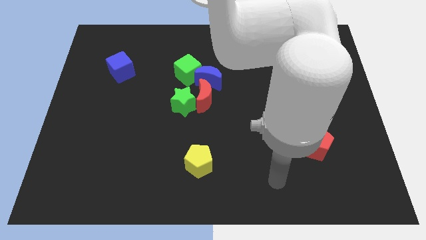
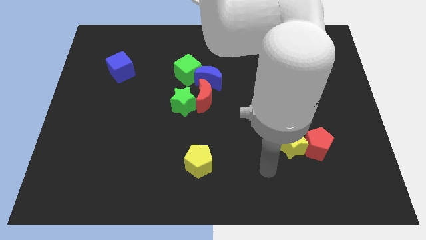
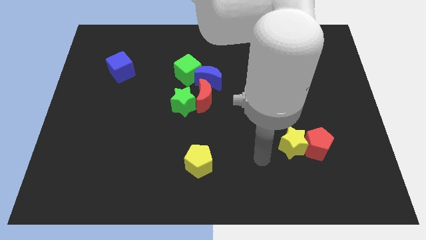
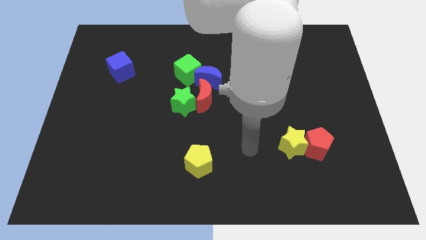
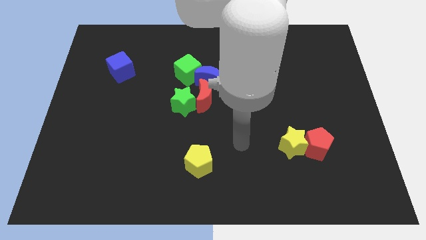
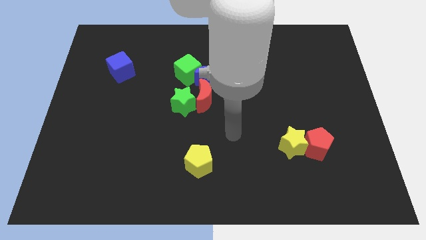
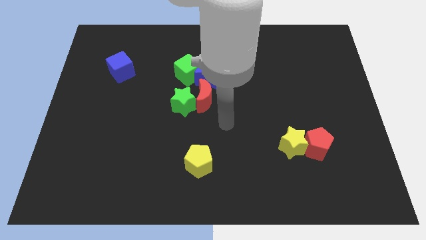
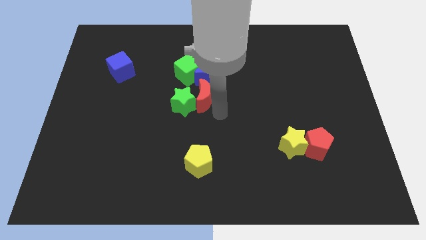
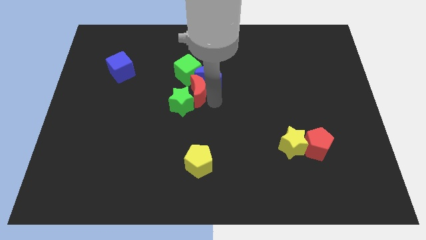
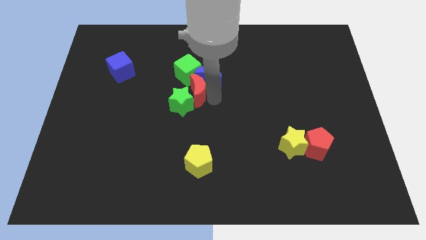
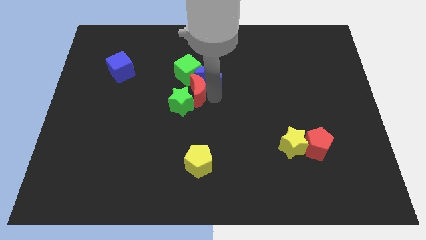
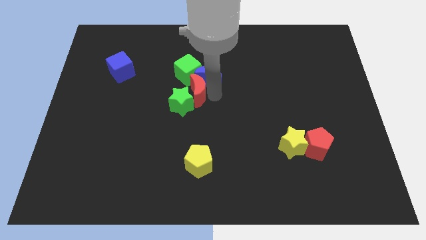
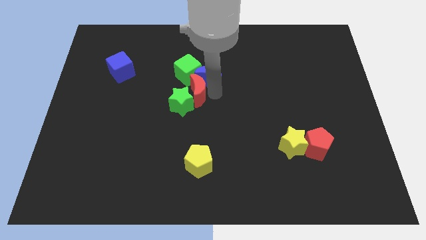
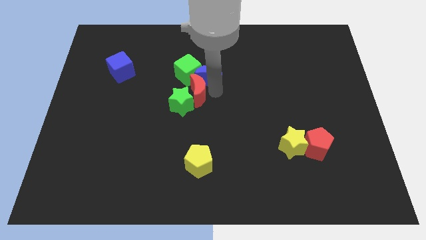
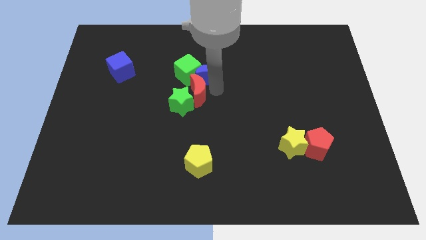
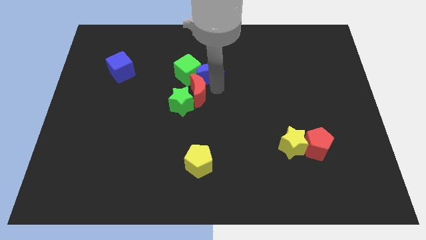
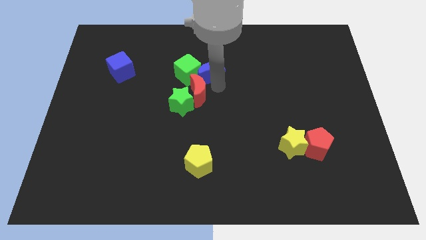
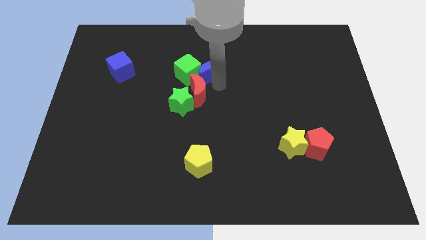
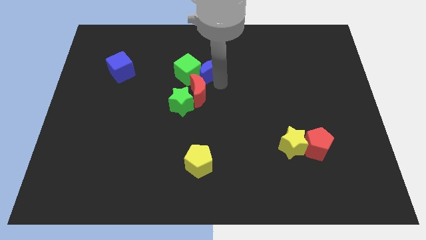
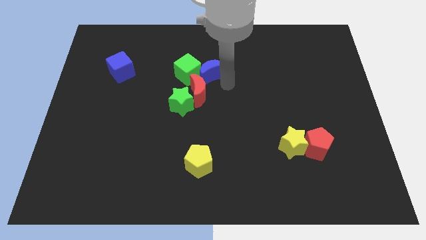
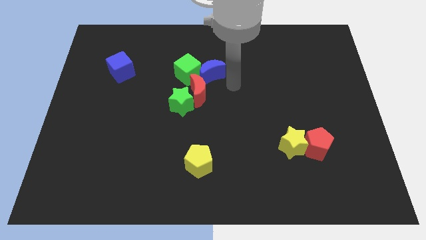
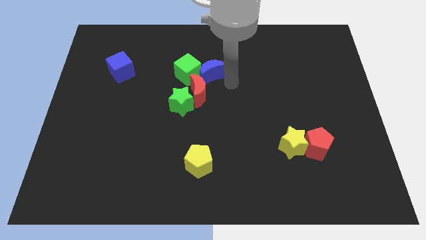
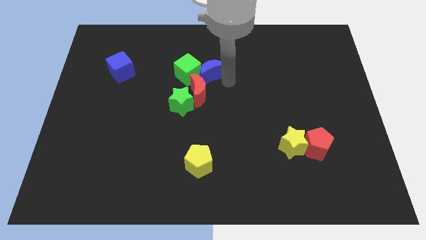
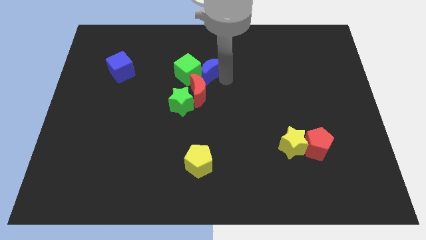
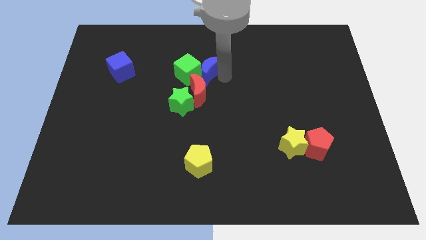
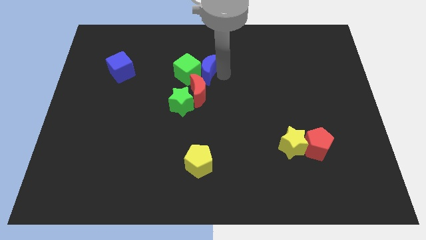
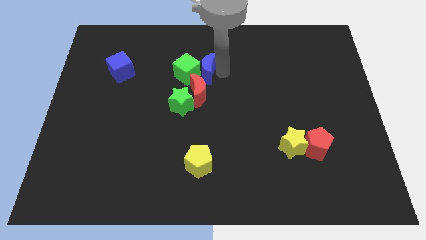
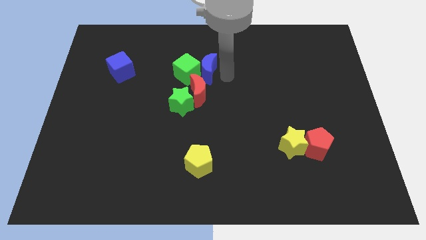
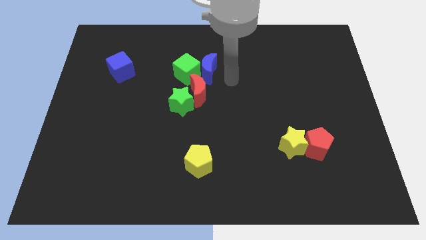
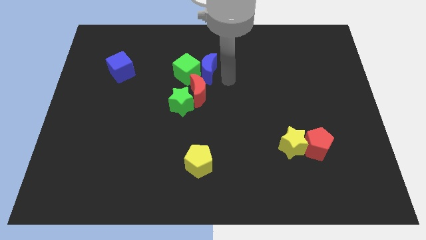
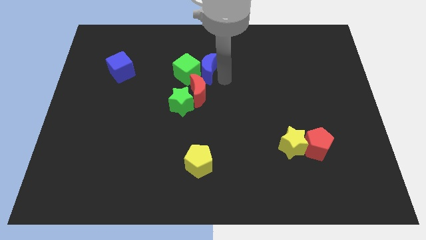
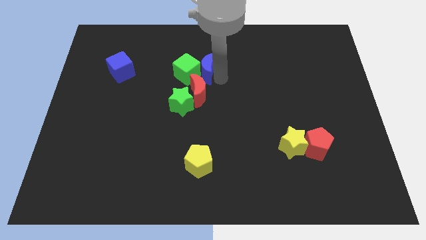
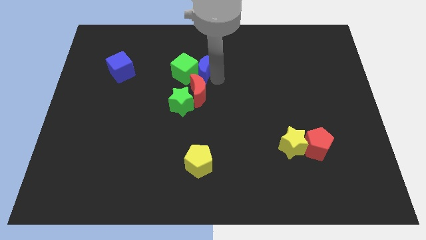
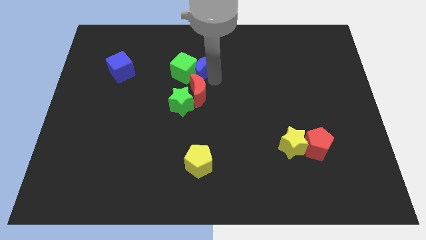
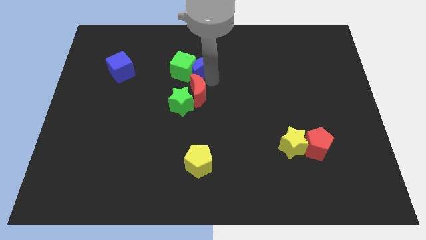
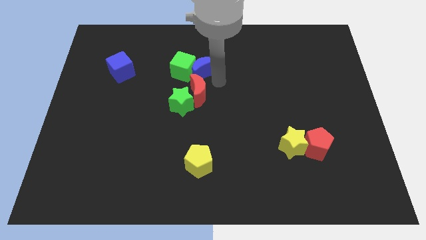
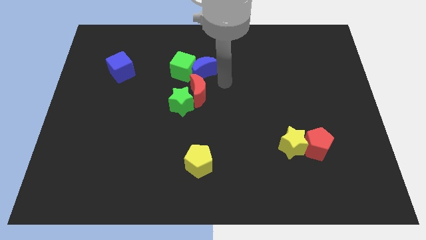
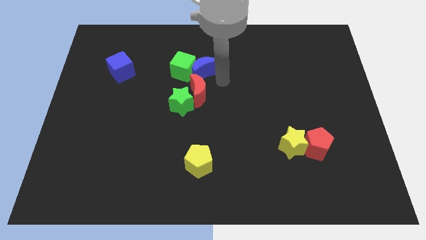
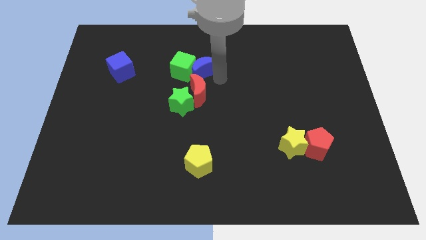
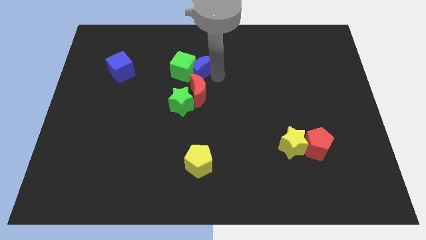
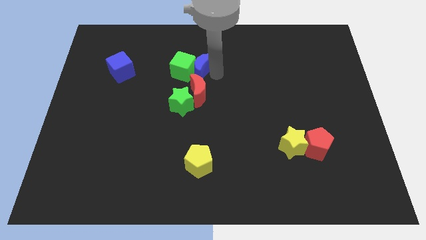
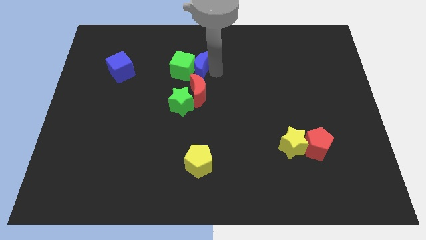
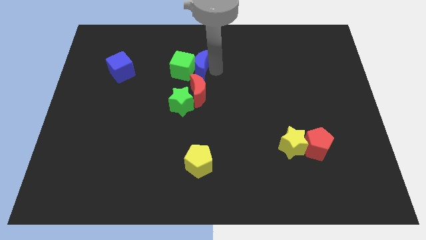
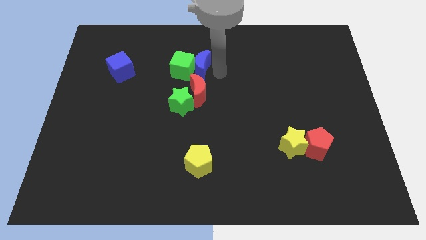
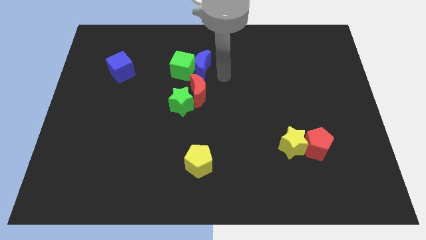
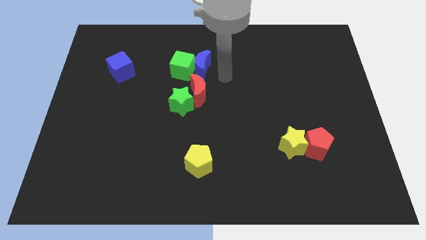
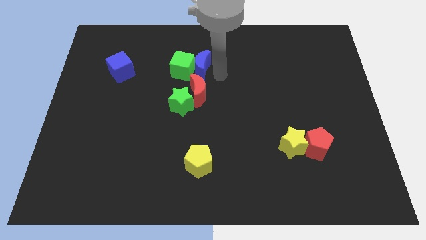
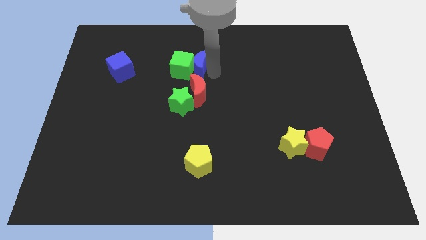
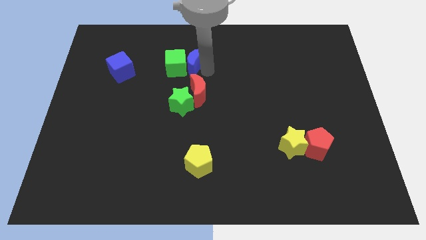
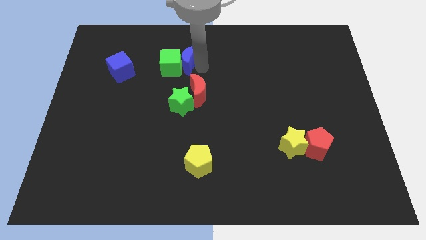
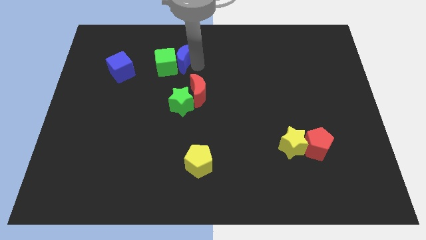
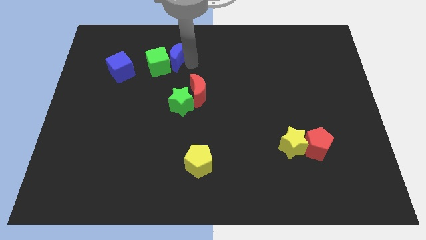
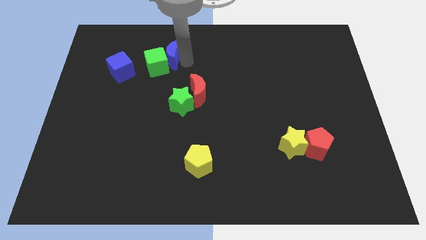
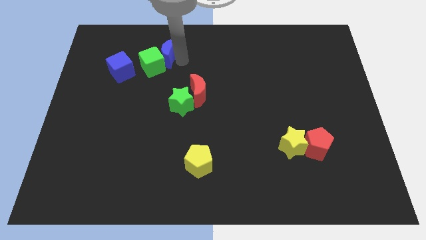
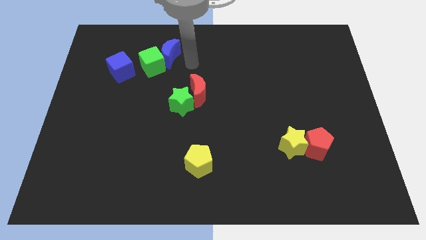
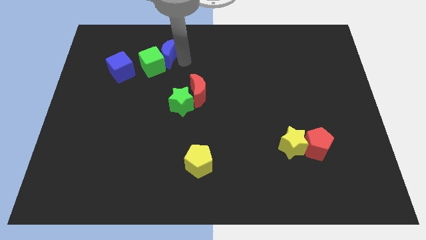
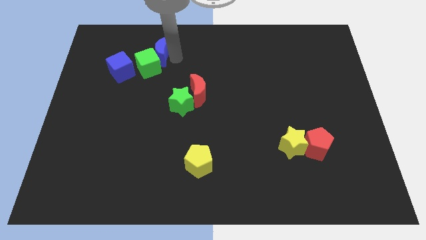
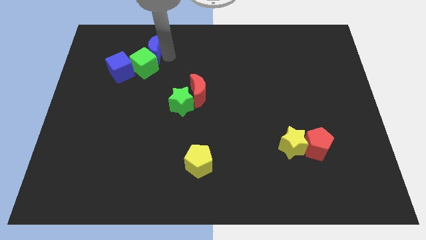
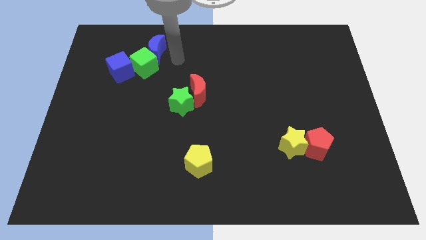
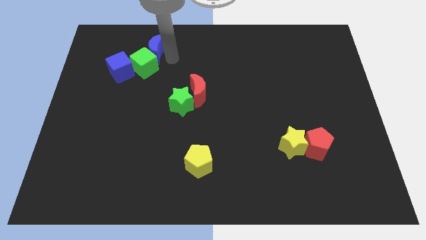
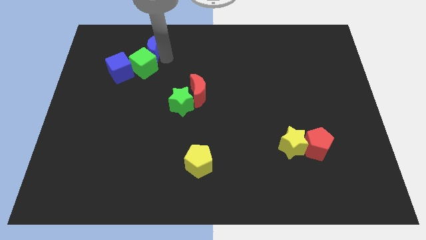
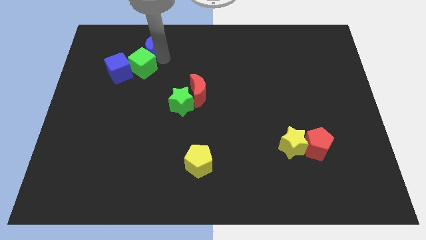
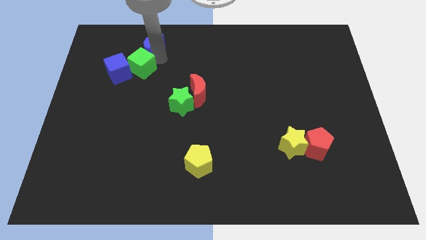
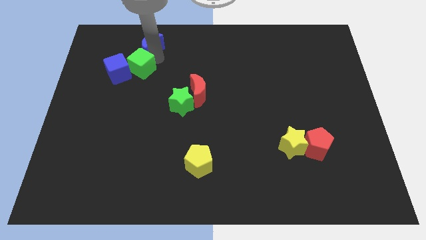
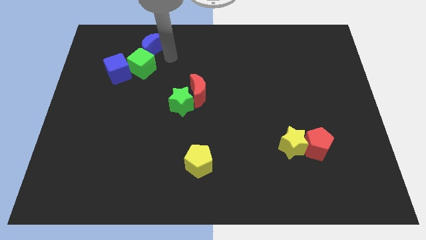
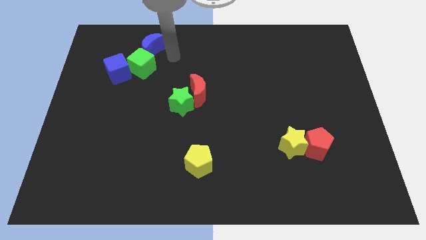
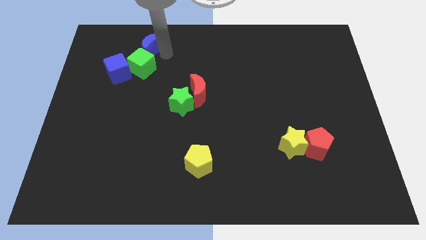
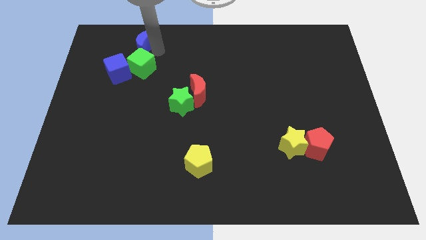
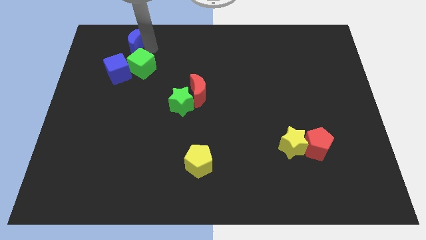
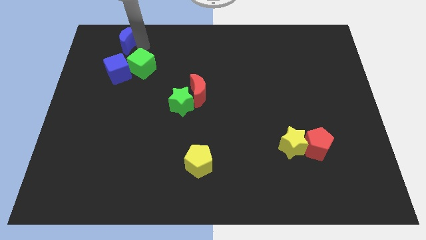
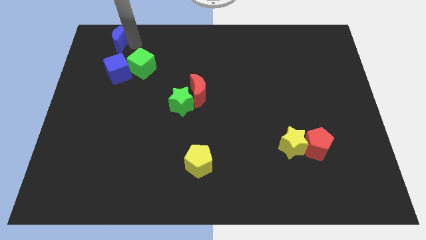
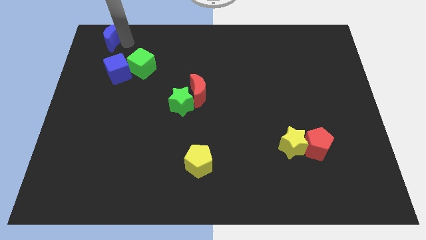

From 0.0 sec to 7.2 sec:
put the blue moon to the top left corner
